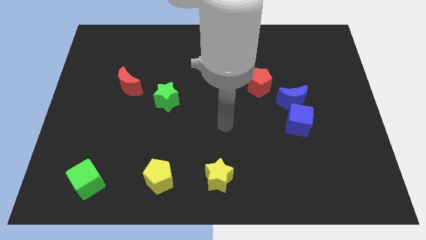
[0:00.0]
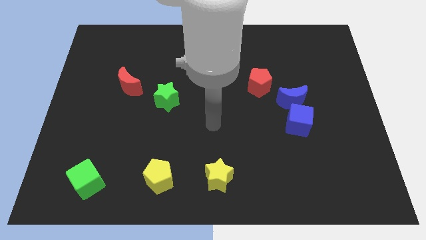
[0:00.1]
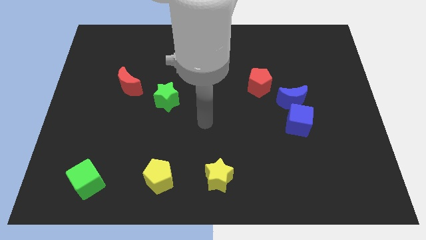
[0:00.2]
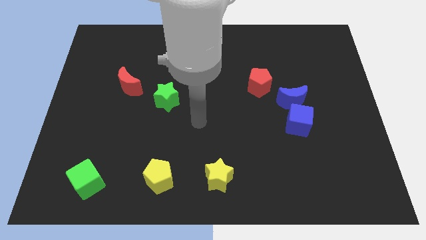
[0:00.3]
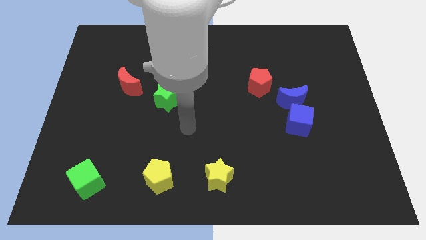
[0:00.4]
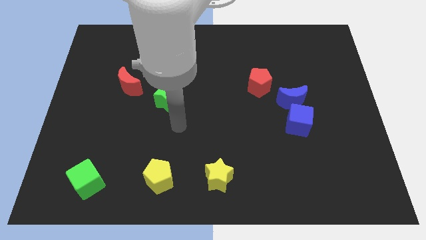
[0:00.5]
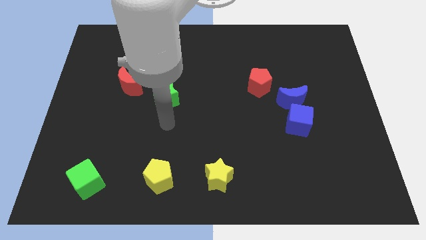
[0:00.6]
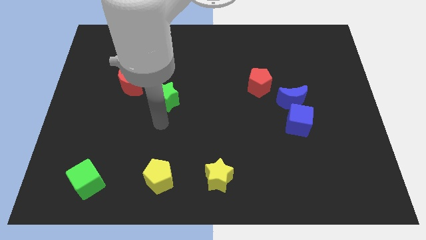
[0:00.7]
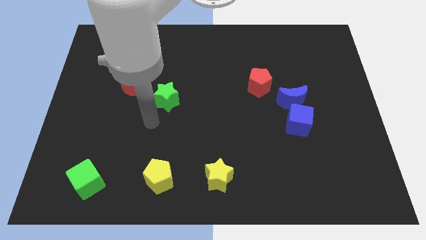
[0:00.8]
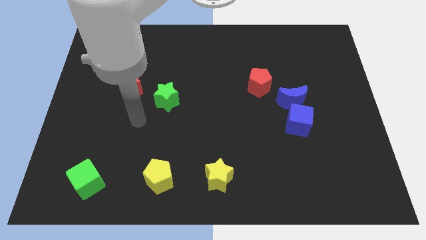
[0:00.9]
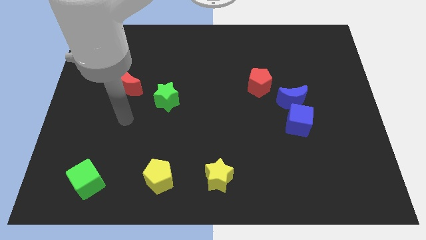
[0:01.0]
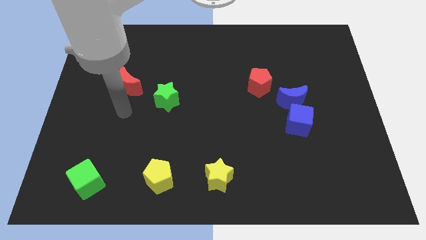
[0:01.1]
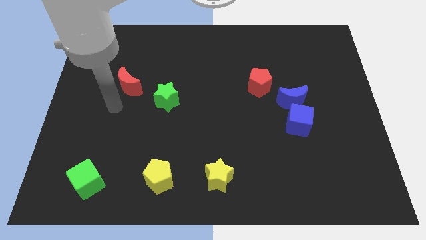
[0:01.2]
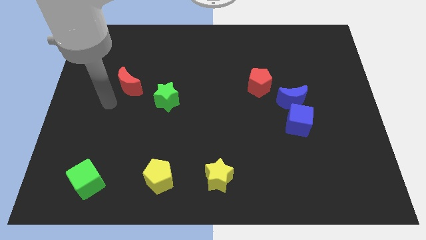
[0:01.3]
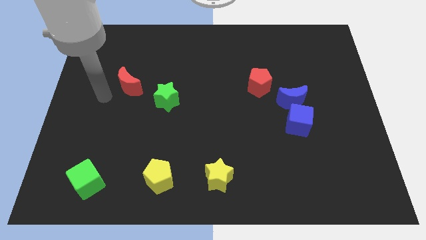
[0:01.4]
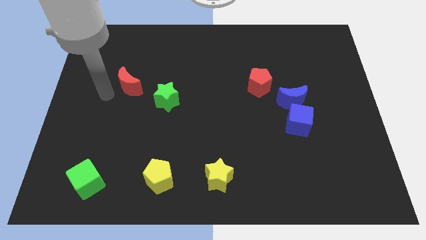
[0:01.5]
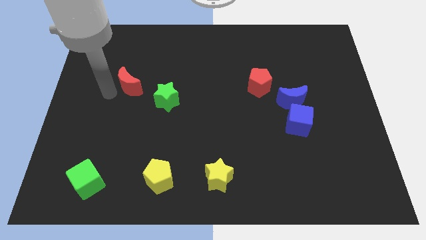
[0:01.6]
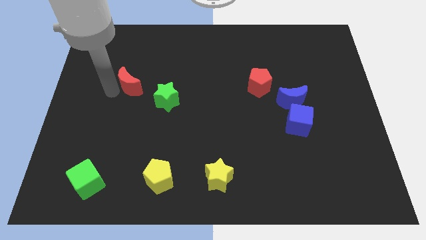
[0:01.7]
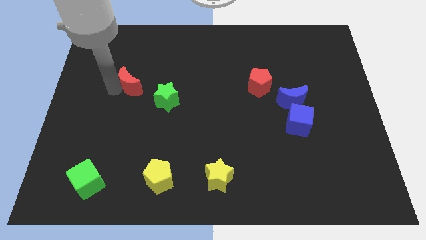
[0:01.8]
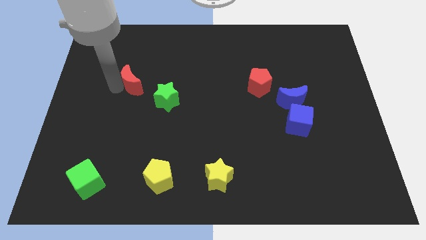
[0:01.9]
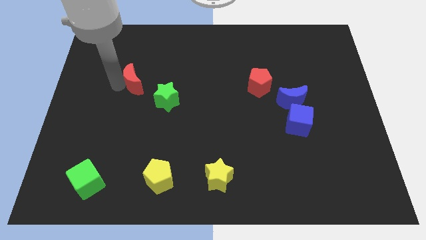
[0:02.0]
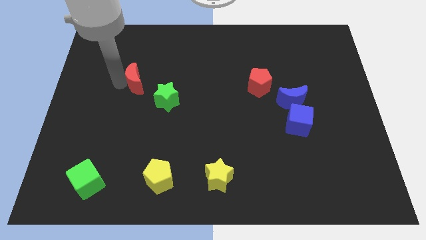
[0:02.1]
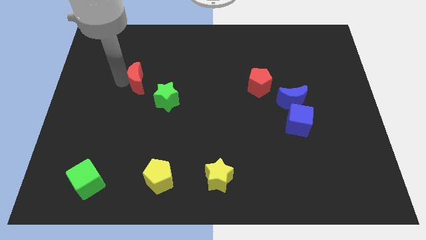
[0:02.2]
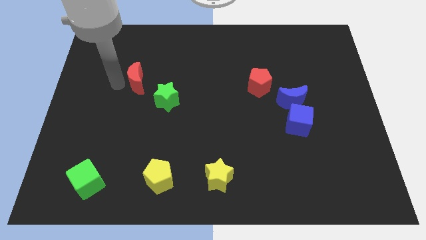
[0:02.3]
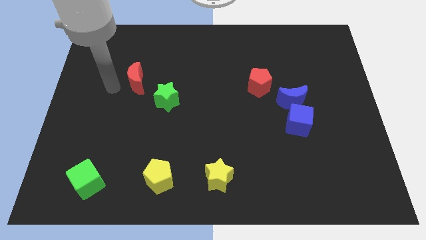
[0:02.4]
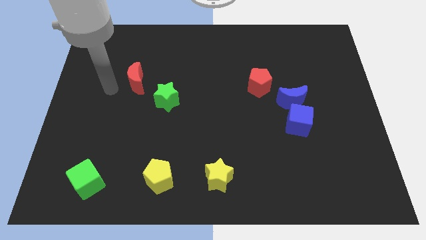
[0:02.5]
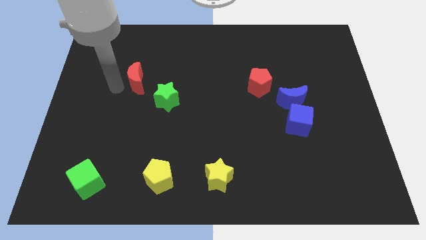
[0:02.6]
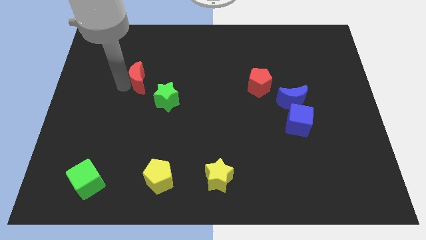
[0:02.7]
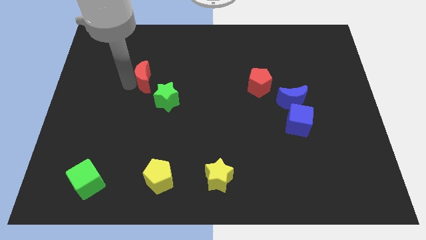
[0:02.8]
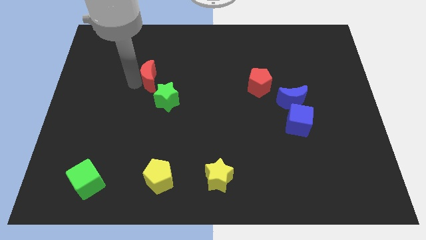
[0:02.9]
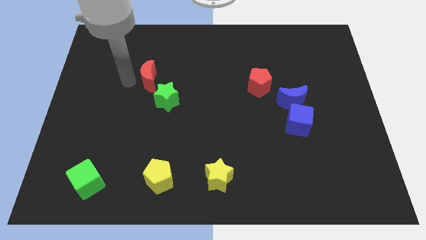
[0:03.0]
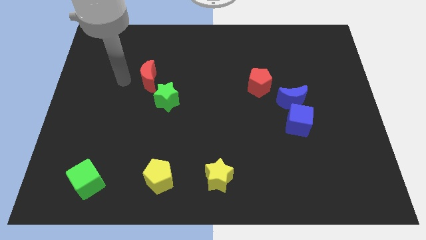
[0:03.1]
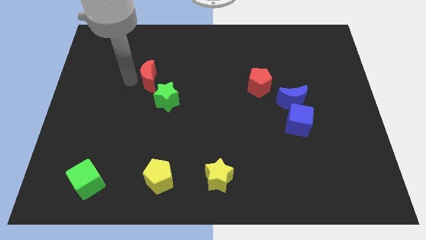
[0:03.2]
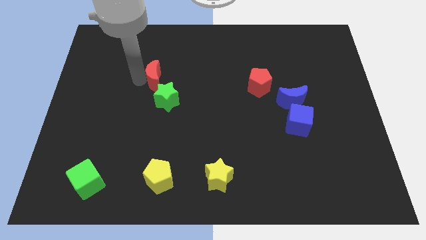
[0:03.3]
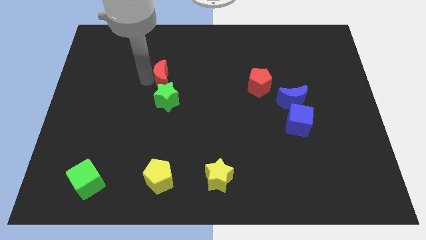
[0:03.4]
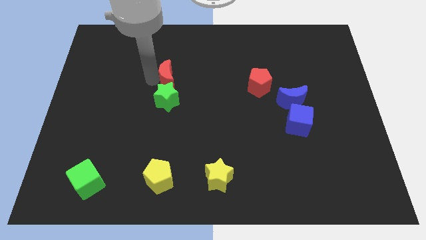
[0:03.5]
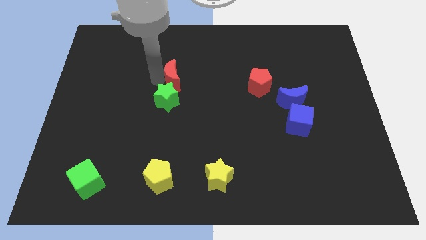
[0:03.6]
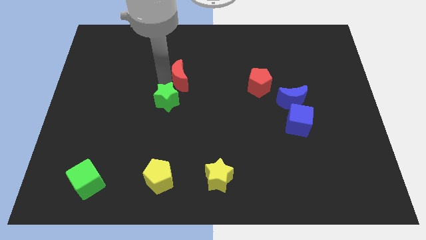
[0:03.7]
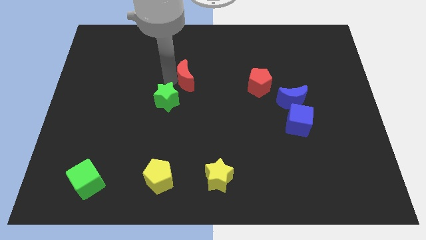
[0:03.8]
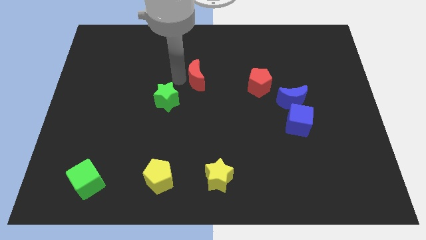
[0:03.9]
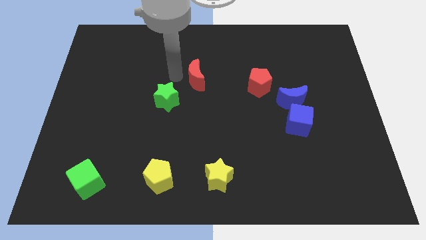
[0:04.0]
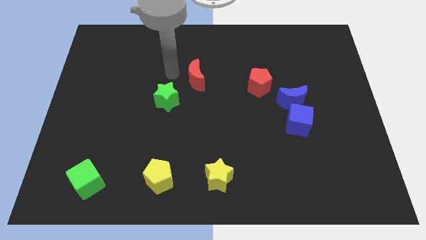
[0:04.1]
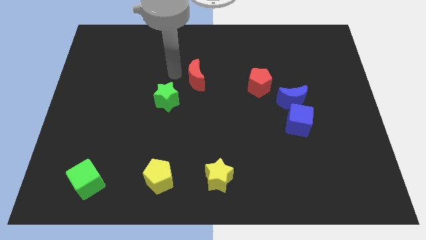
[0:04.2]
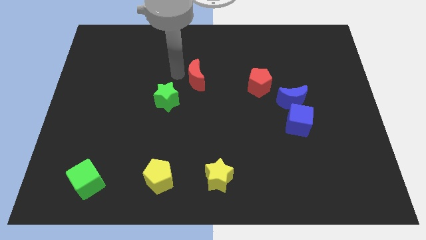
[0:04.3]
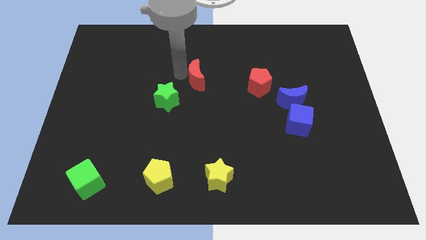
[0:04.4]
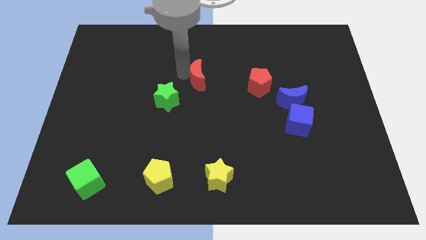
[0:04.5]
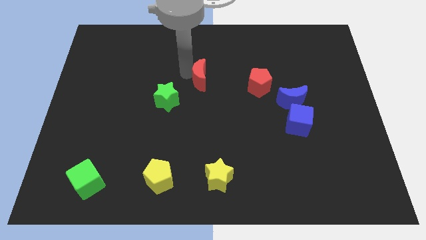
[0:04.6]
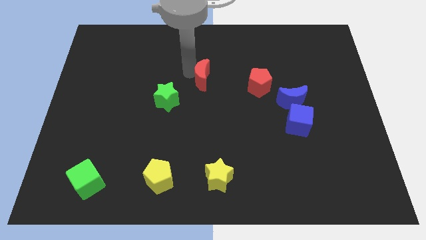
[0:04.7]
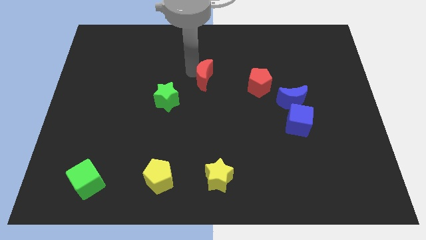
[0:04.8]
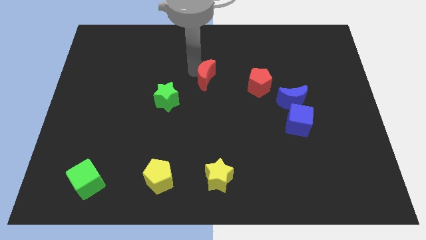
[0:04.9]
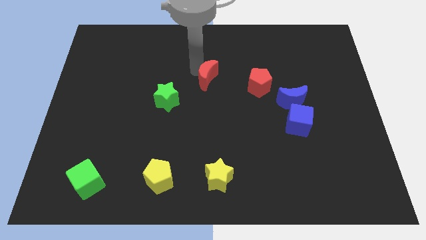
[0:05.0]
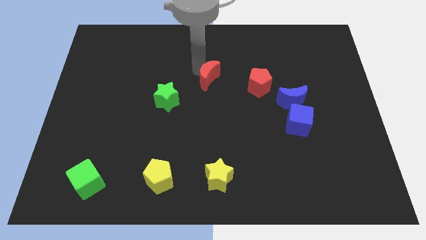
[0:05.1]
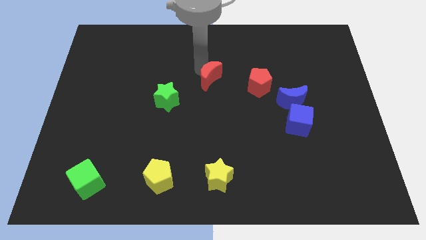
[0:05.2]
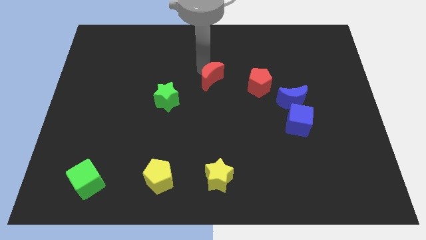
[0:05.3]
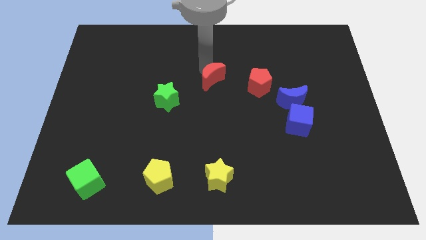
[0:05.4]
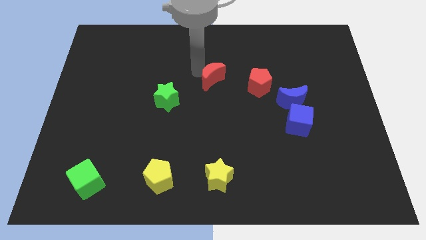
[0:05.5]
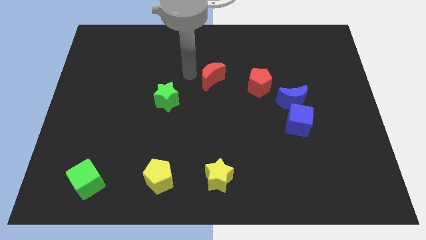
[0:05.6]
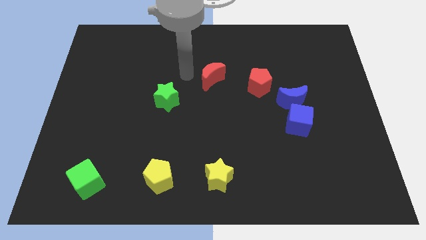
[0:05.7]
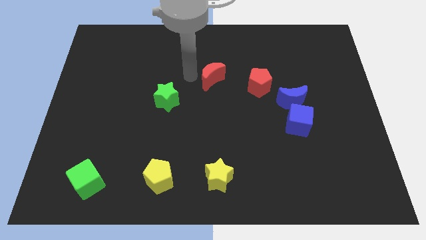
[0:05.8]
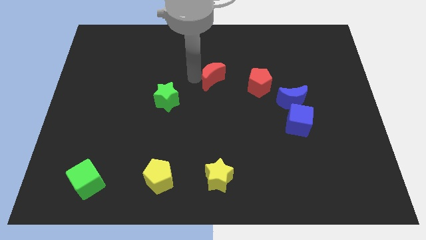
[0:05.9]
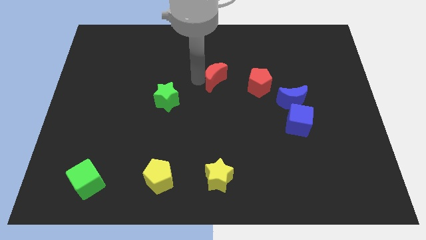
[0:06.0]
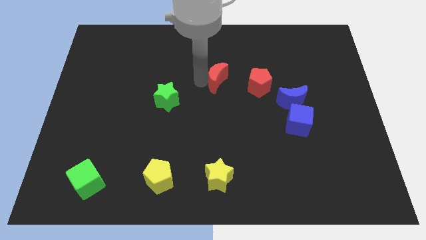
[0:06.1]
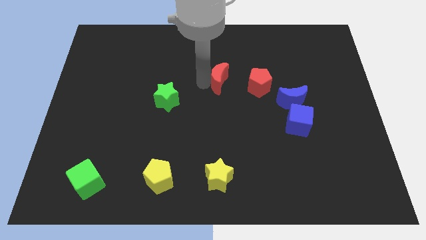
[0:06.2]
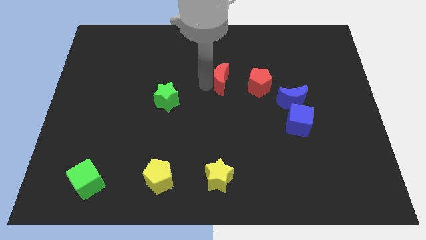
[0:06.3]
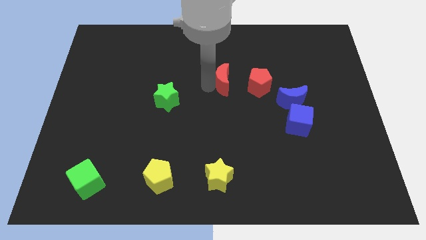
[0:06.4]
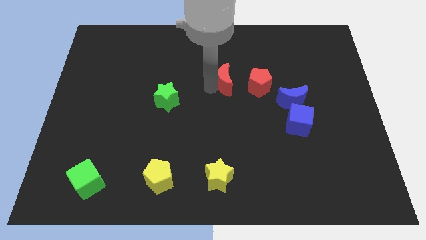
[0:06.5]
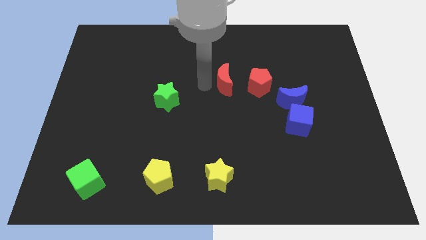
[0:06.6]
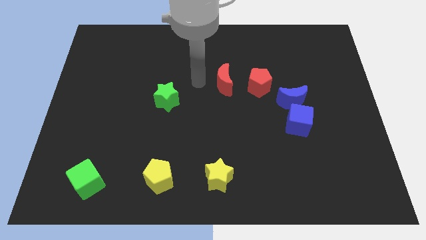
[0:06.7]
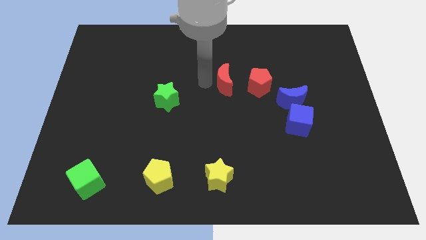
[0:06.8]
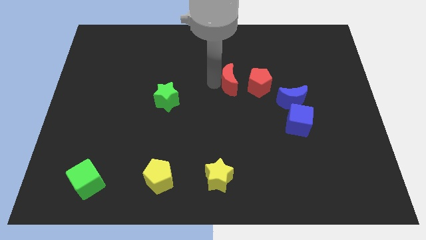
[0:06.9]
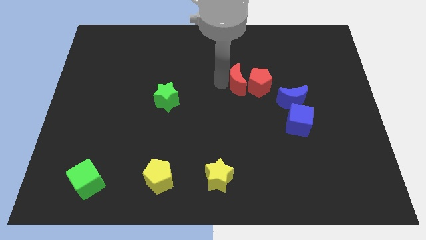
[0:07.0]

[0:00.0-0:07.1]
move the red moon next to the red pentagon
